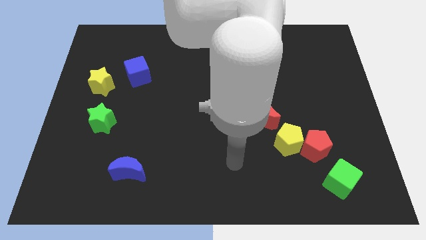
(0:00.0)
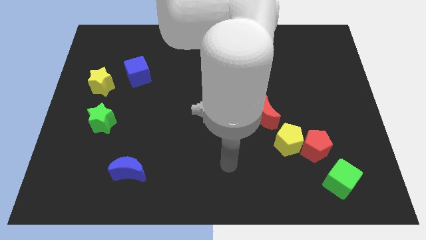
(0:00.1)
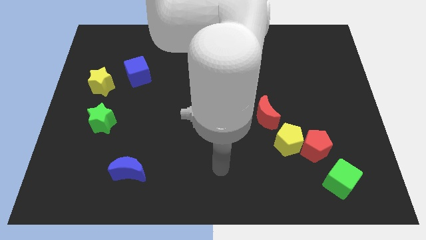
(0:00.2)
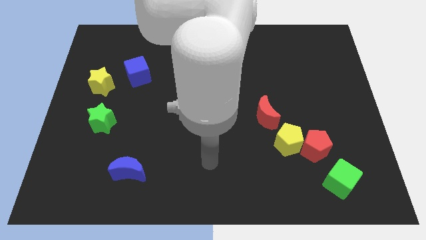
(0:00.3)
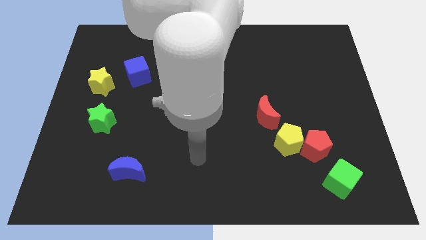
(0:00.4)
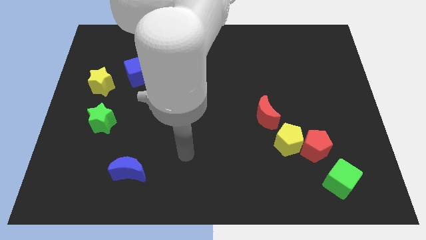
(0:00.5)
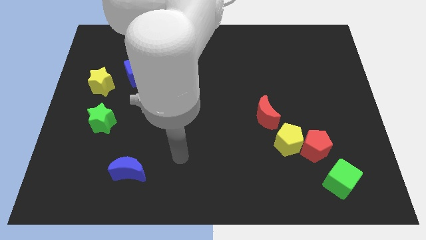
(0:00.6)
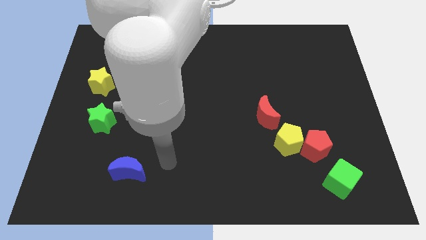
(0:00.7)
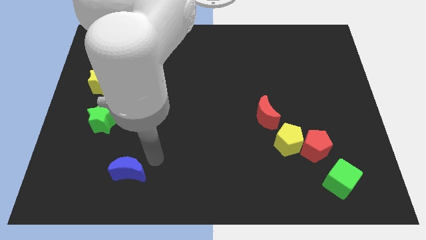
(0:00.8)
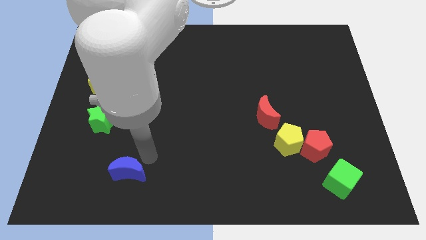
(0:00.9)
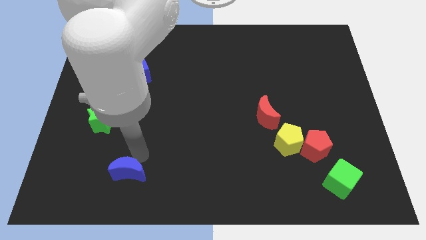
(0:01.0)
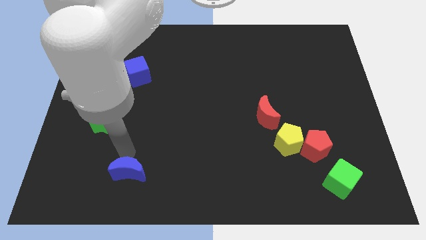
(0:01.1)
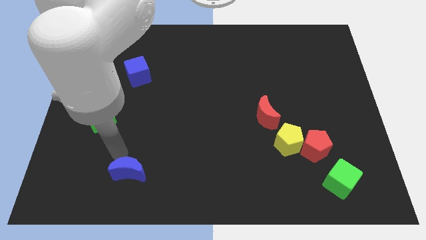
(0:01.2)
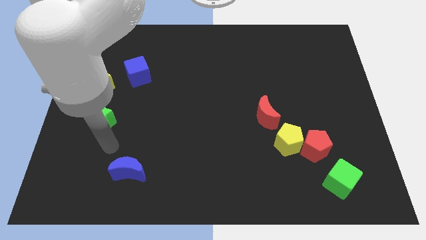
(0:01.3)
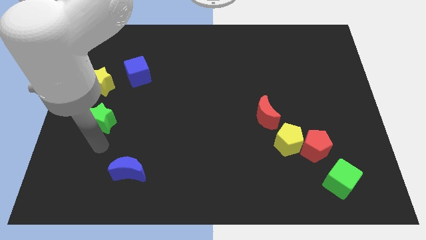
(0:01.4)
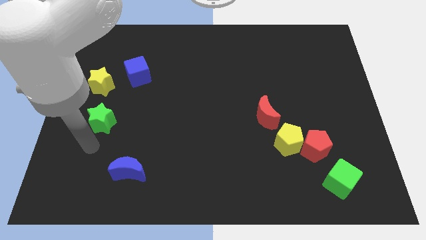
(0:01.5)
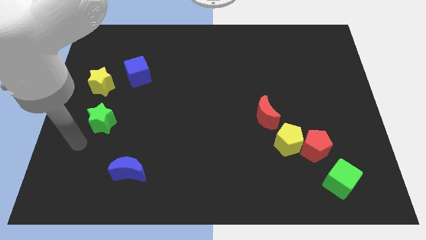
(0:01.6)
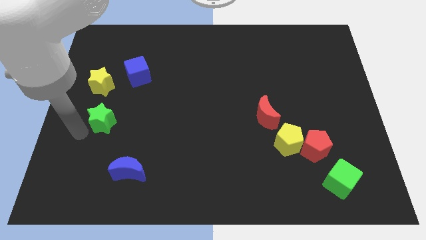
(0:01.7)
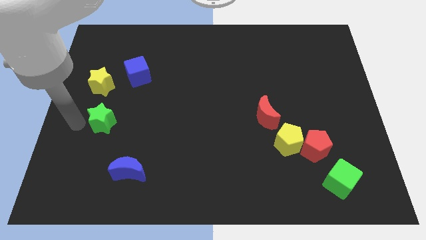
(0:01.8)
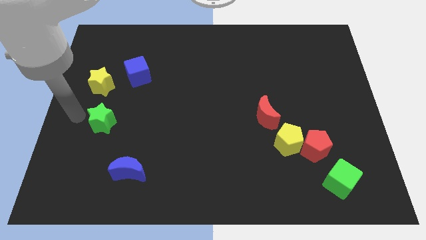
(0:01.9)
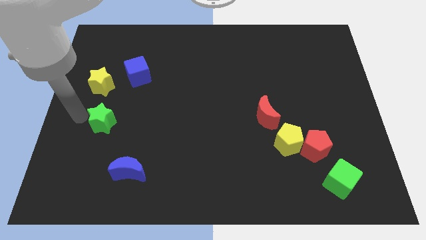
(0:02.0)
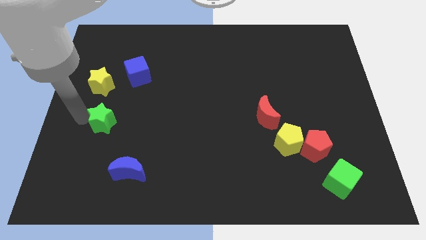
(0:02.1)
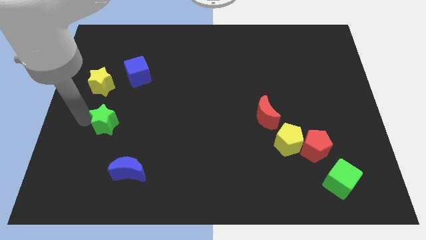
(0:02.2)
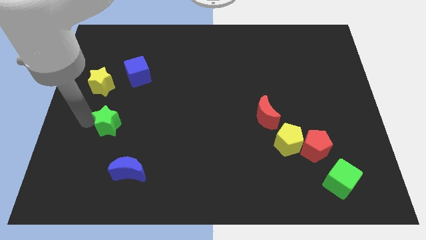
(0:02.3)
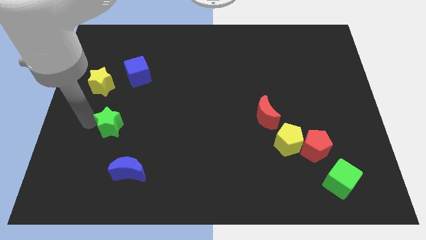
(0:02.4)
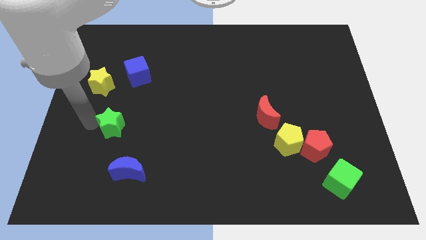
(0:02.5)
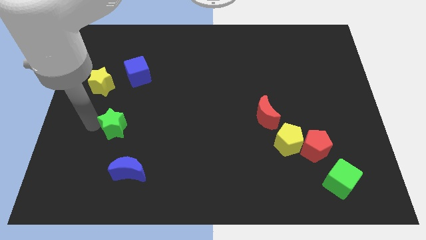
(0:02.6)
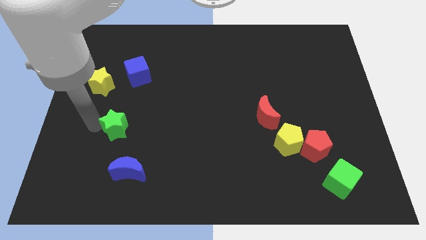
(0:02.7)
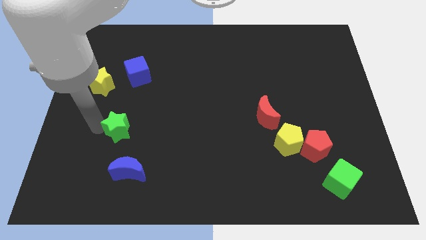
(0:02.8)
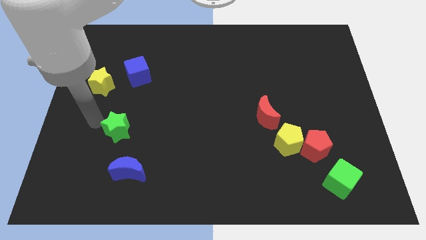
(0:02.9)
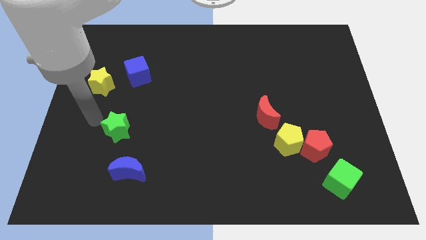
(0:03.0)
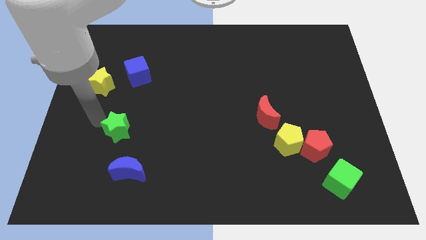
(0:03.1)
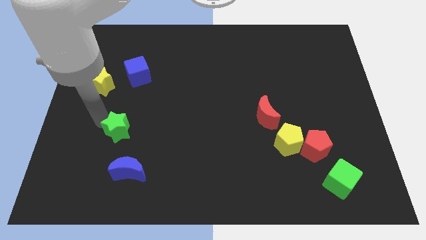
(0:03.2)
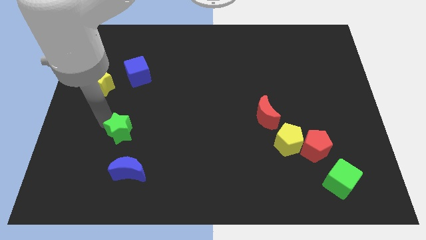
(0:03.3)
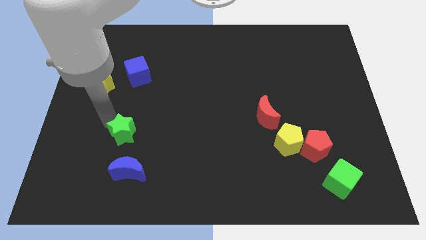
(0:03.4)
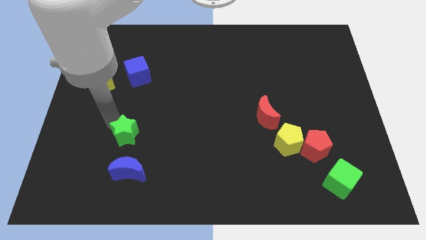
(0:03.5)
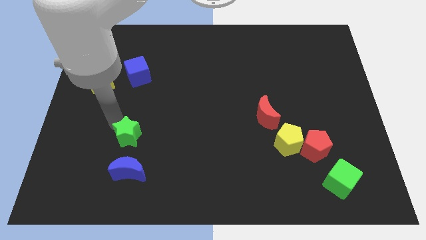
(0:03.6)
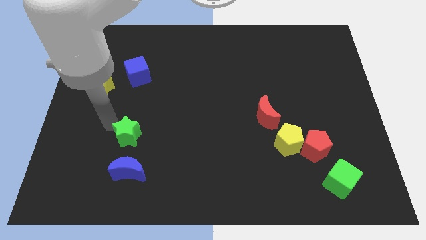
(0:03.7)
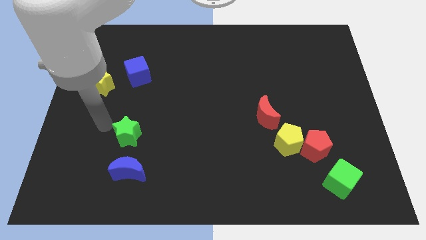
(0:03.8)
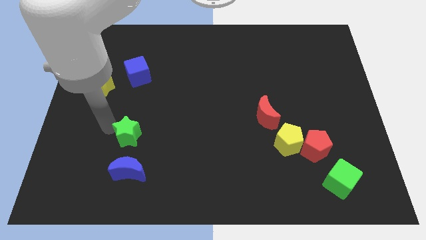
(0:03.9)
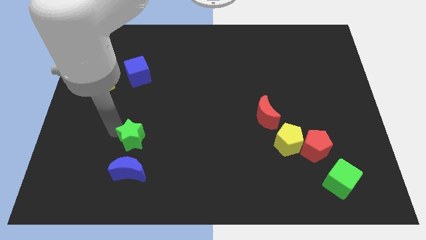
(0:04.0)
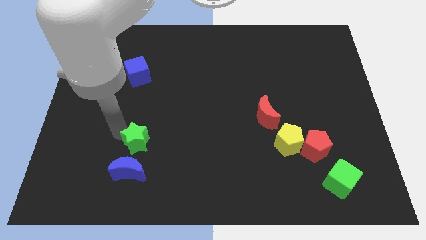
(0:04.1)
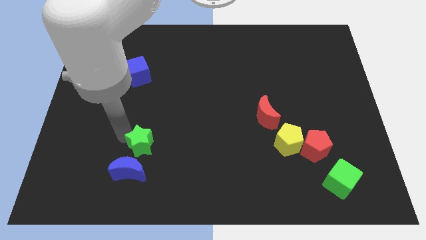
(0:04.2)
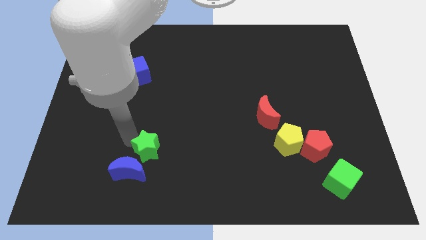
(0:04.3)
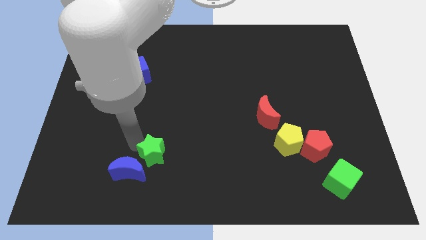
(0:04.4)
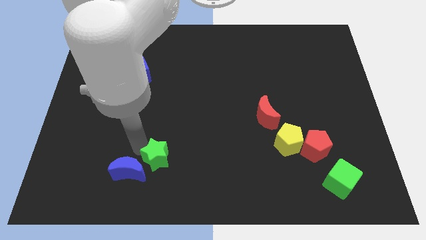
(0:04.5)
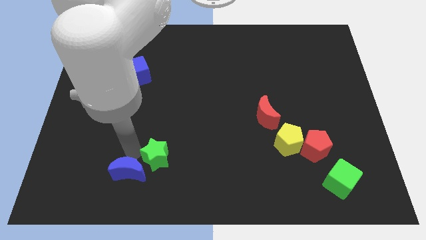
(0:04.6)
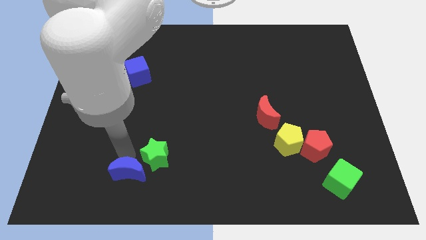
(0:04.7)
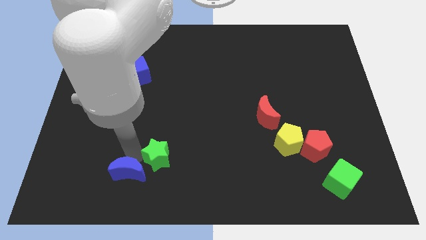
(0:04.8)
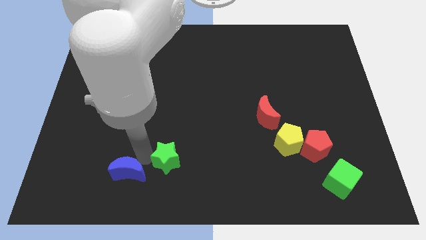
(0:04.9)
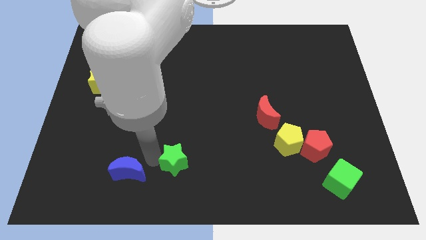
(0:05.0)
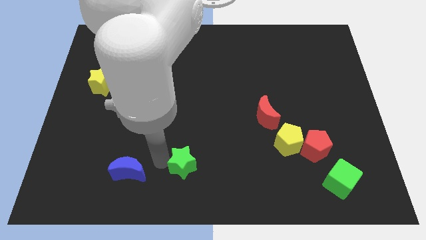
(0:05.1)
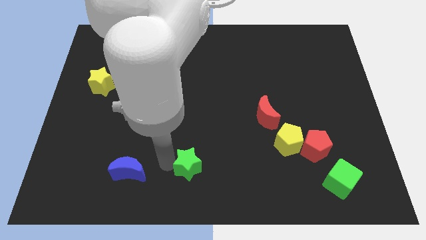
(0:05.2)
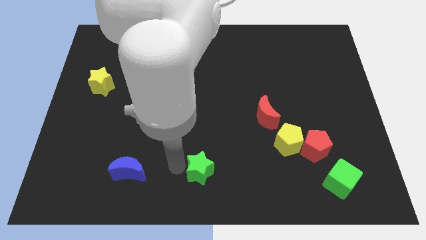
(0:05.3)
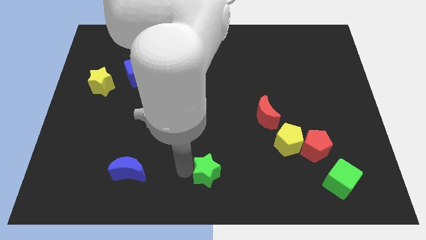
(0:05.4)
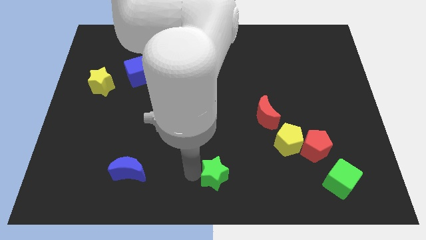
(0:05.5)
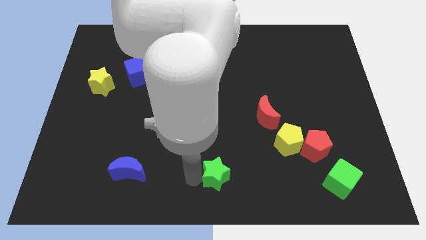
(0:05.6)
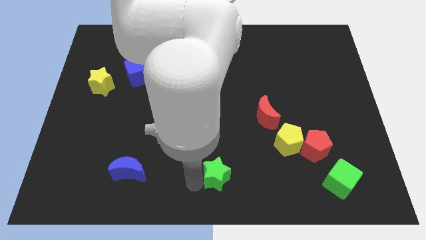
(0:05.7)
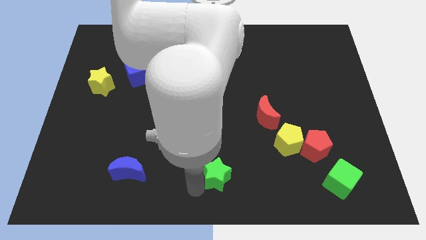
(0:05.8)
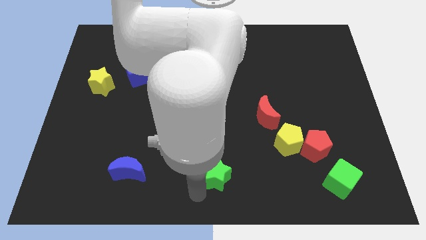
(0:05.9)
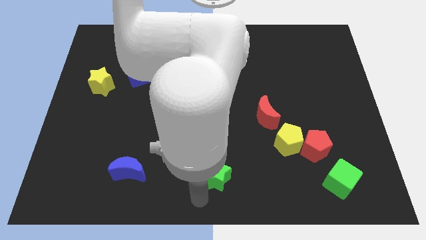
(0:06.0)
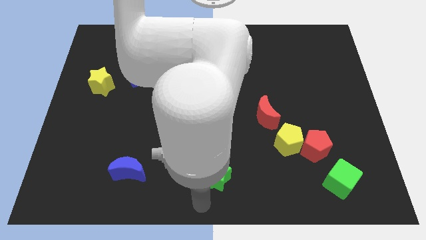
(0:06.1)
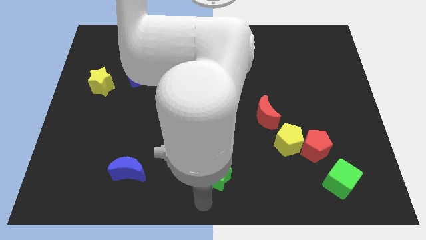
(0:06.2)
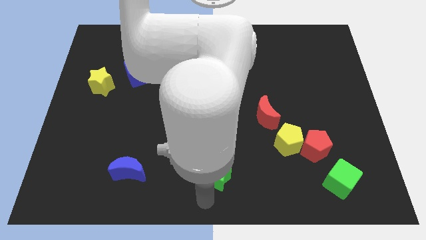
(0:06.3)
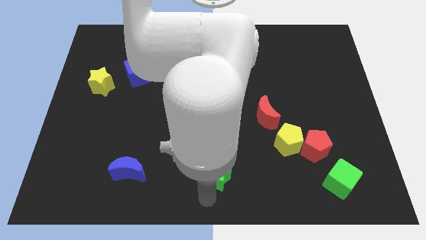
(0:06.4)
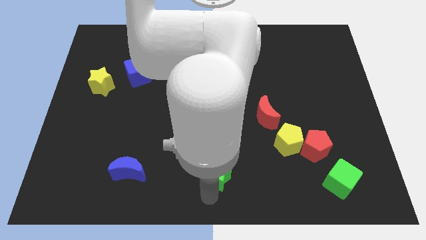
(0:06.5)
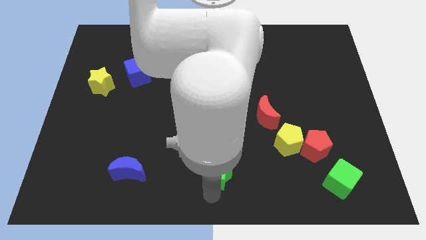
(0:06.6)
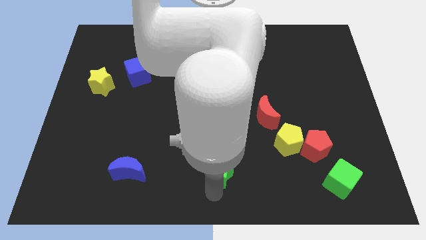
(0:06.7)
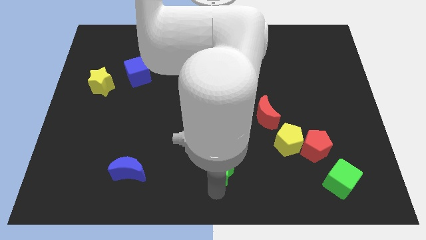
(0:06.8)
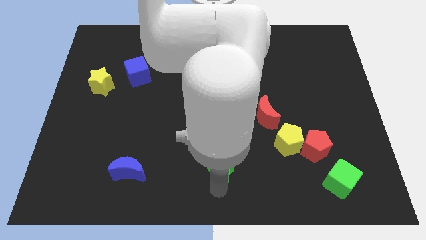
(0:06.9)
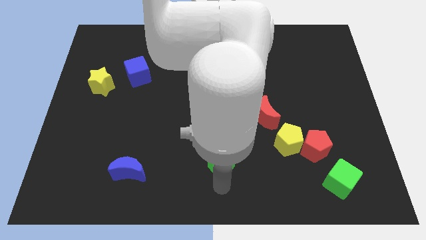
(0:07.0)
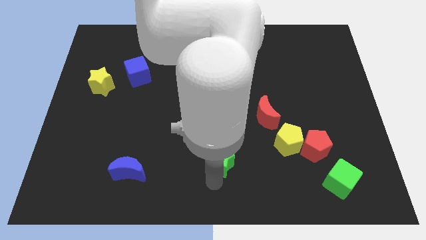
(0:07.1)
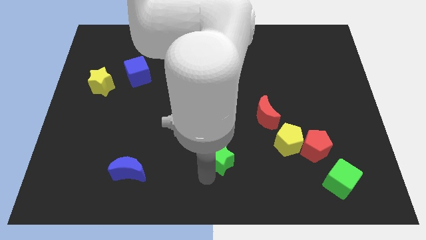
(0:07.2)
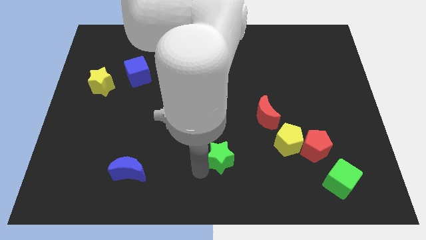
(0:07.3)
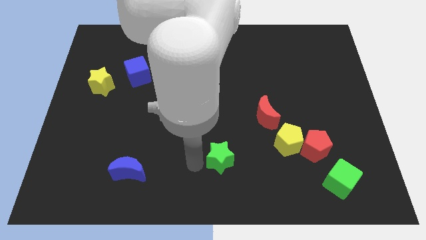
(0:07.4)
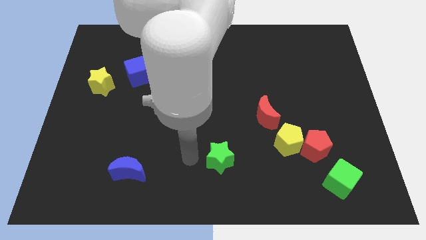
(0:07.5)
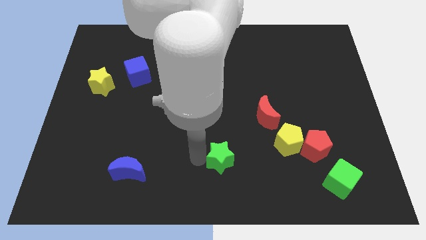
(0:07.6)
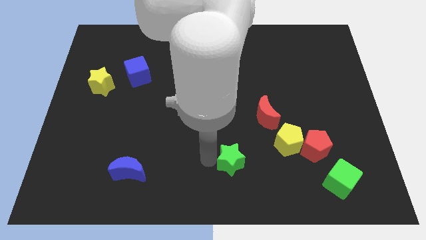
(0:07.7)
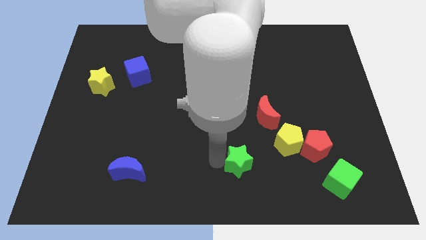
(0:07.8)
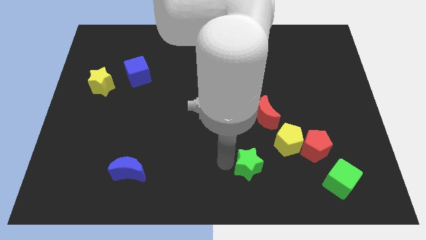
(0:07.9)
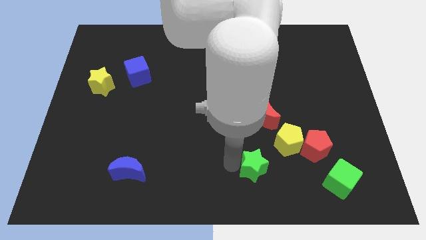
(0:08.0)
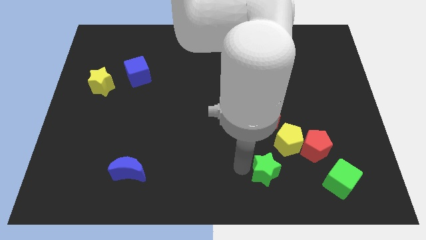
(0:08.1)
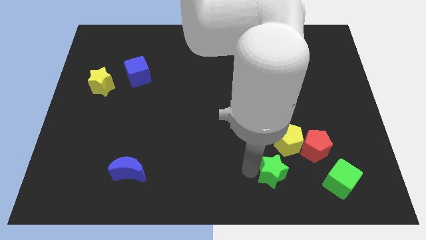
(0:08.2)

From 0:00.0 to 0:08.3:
slide the green star diagonally down and to the left of the red pentagon
